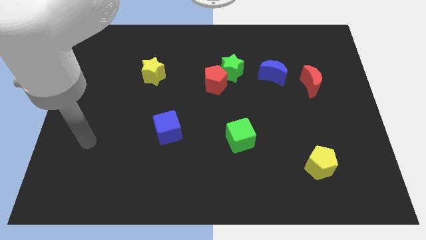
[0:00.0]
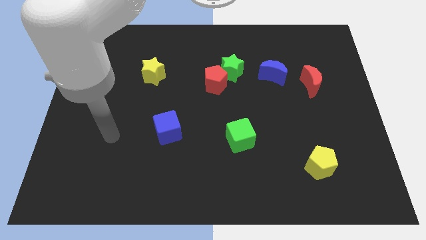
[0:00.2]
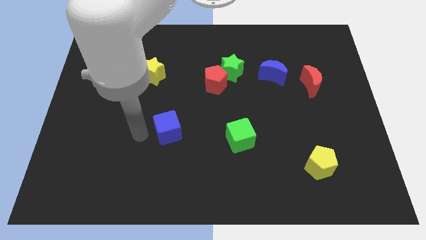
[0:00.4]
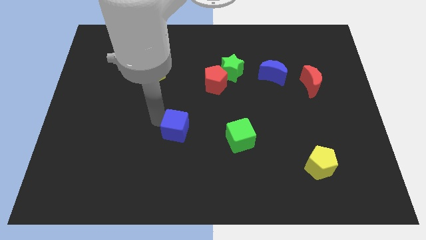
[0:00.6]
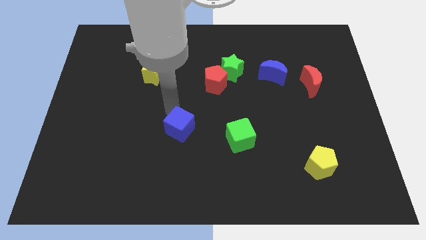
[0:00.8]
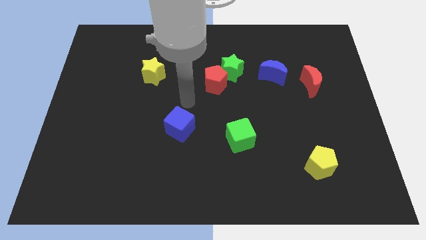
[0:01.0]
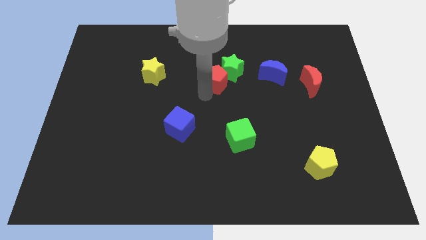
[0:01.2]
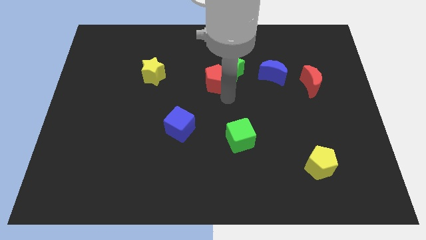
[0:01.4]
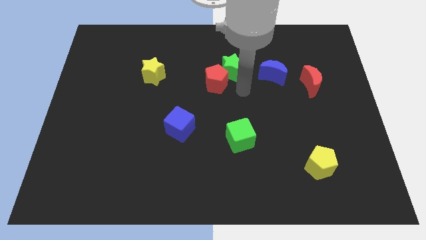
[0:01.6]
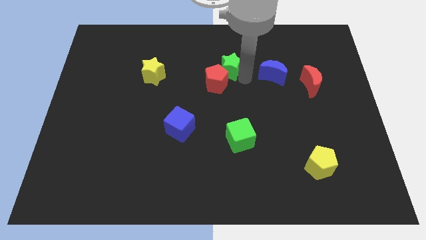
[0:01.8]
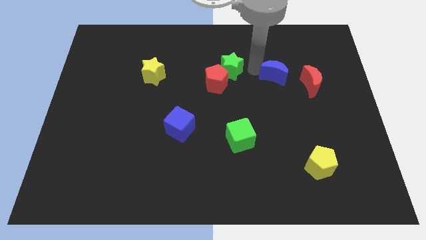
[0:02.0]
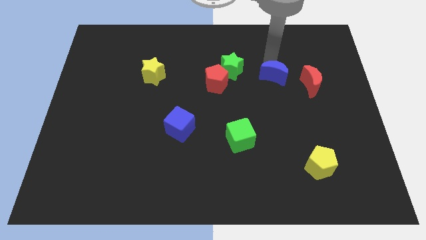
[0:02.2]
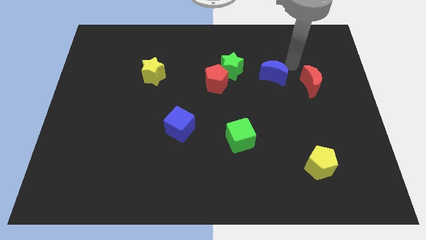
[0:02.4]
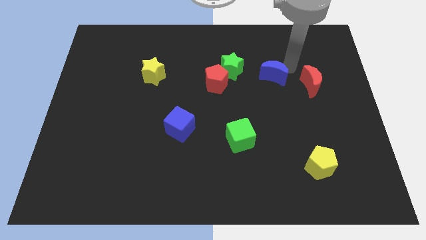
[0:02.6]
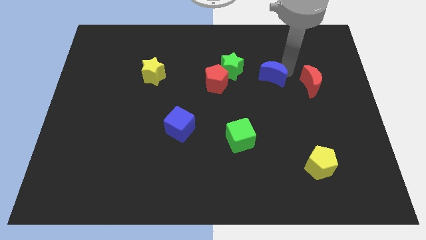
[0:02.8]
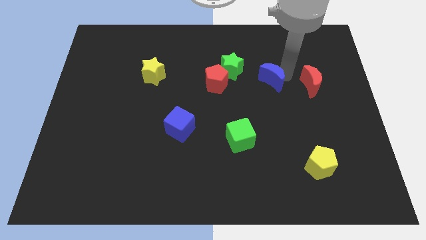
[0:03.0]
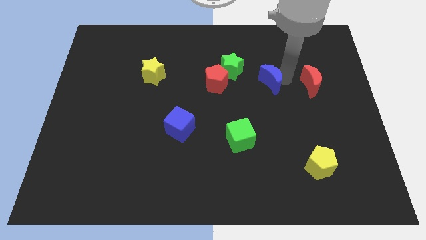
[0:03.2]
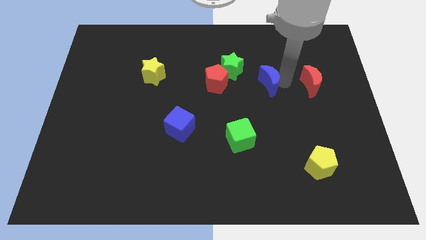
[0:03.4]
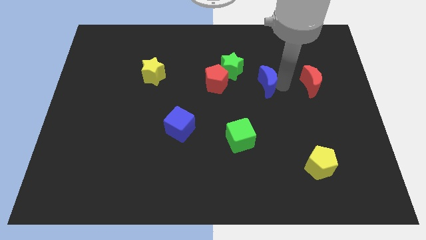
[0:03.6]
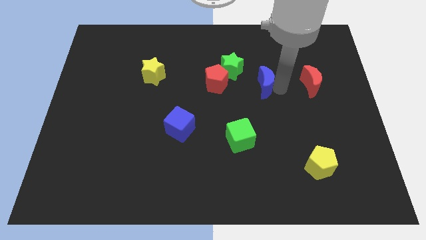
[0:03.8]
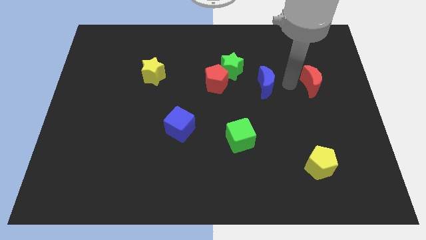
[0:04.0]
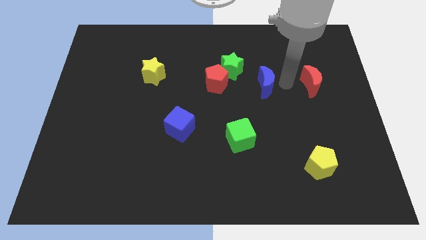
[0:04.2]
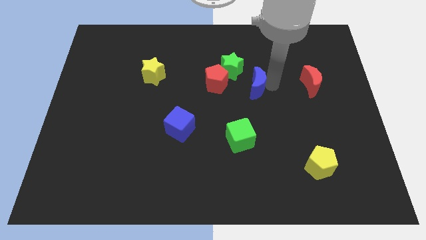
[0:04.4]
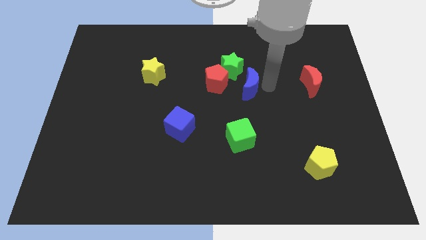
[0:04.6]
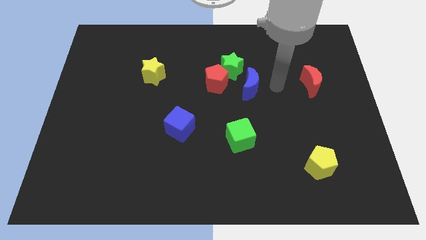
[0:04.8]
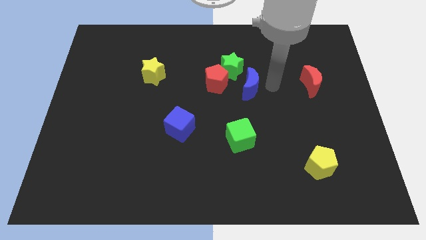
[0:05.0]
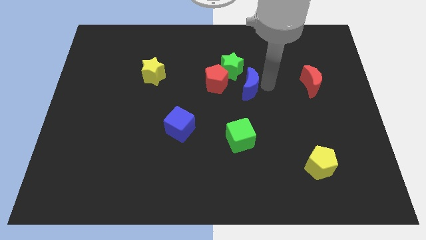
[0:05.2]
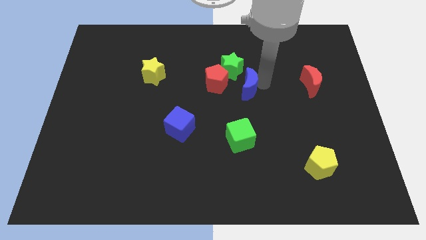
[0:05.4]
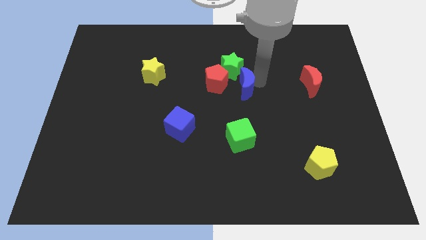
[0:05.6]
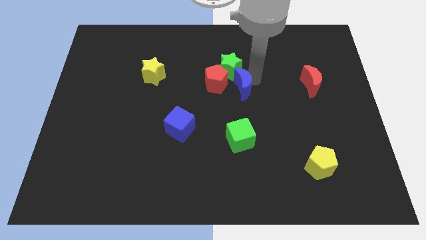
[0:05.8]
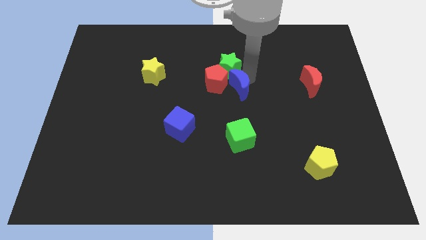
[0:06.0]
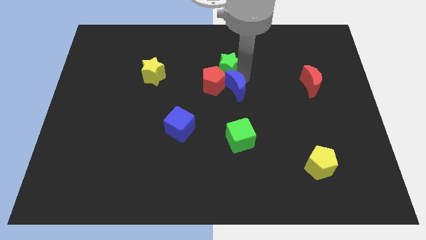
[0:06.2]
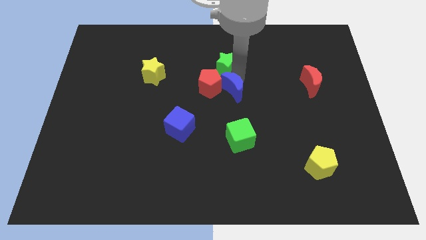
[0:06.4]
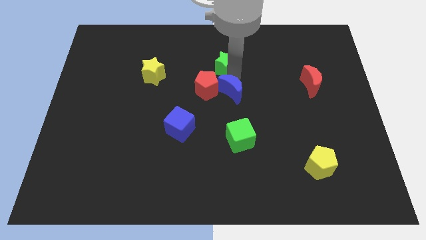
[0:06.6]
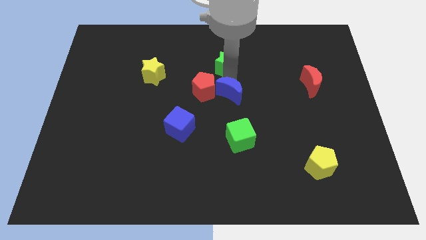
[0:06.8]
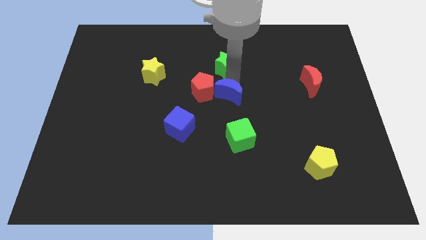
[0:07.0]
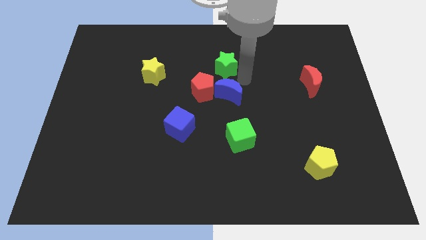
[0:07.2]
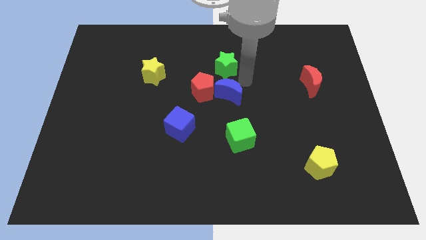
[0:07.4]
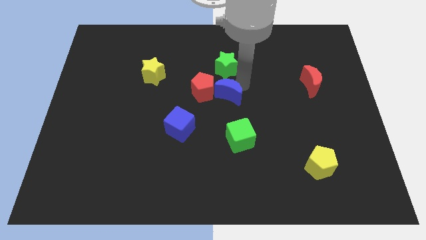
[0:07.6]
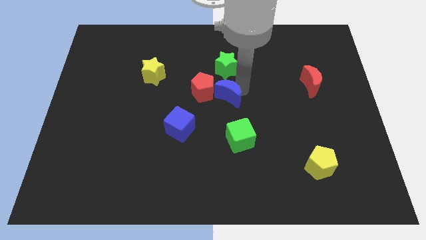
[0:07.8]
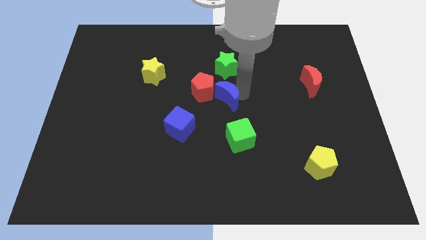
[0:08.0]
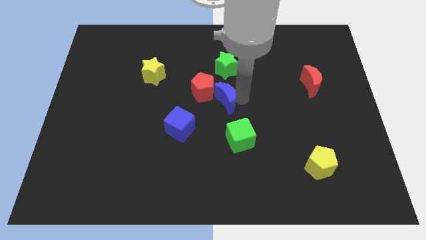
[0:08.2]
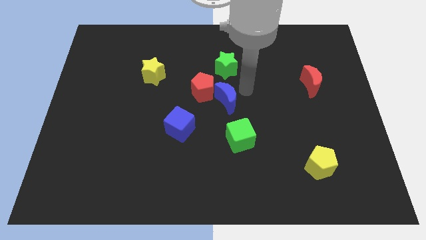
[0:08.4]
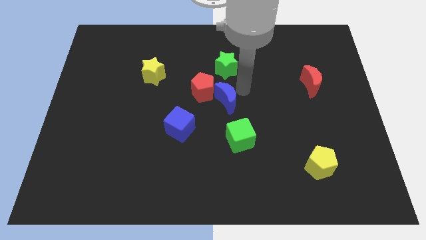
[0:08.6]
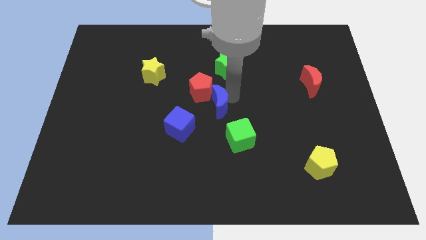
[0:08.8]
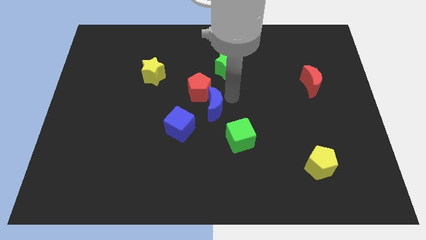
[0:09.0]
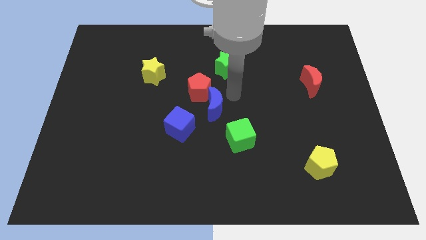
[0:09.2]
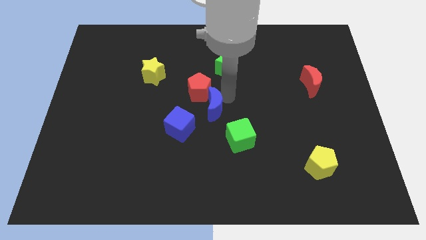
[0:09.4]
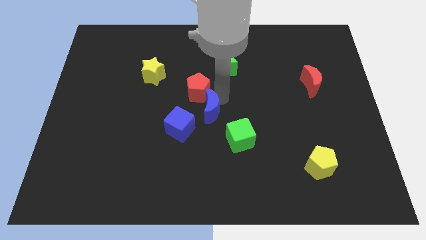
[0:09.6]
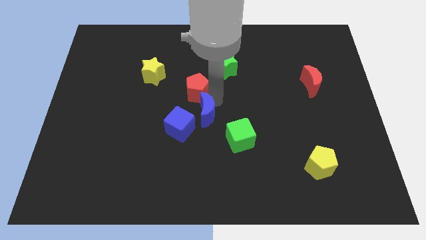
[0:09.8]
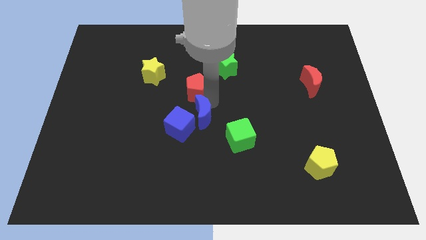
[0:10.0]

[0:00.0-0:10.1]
push the blue moon close to the blue cube

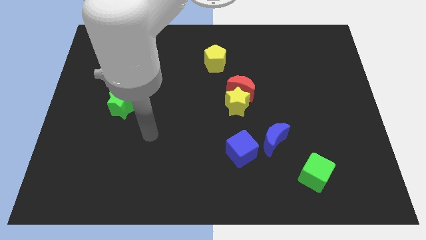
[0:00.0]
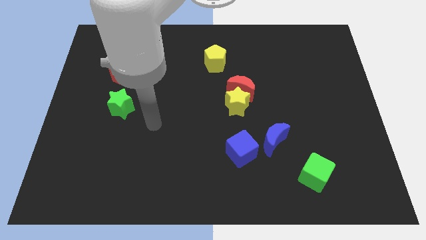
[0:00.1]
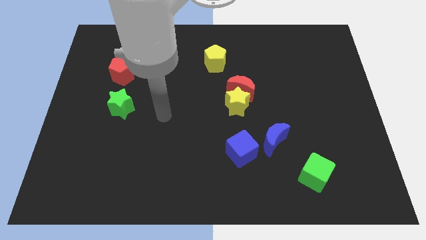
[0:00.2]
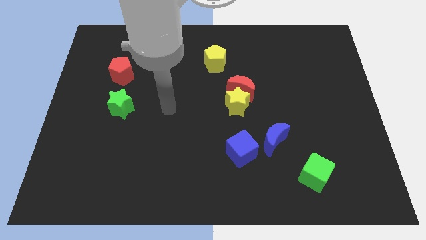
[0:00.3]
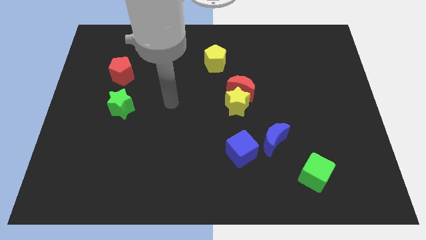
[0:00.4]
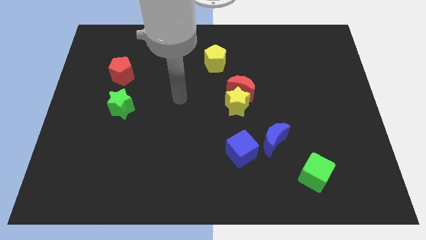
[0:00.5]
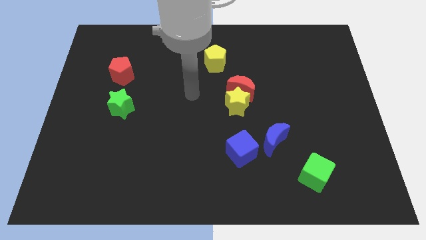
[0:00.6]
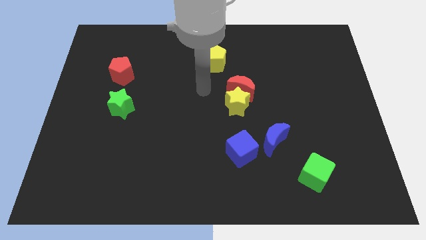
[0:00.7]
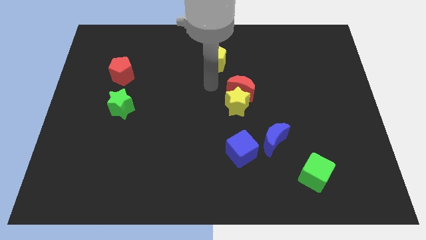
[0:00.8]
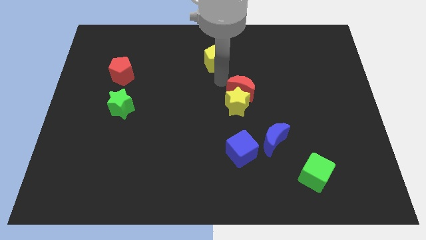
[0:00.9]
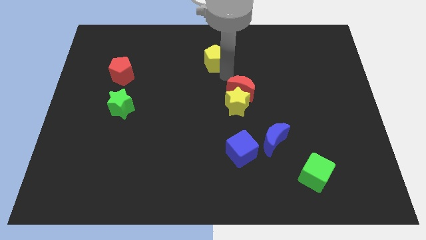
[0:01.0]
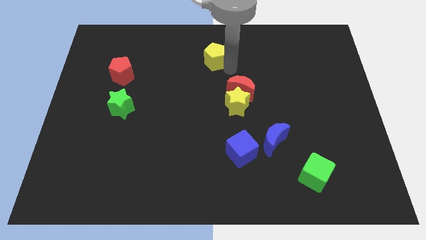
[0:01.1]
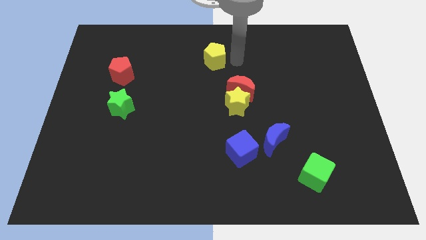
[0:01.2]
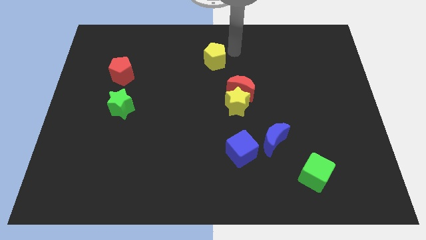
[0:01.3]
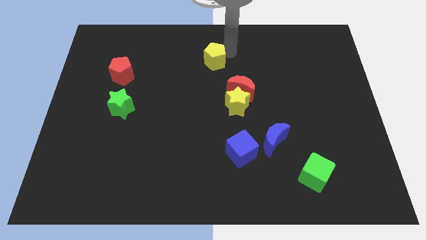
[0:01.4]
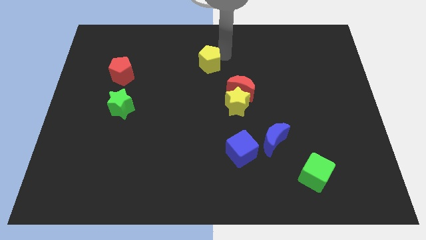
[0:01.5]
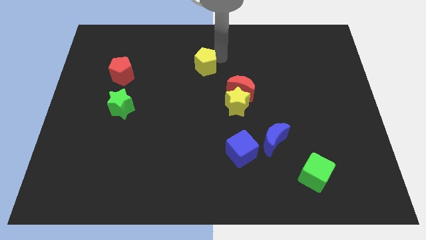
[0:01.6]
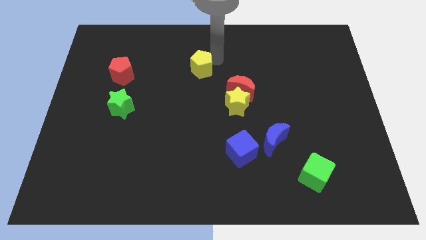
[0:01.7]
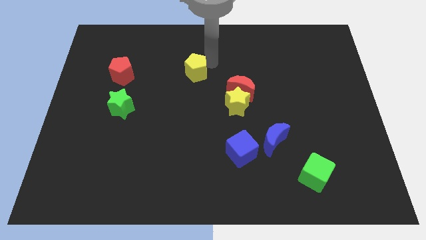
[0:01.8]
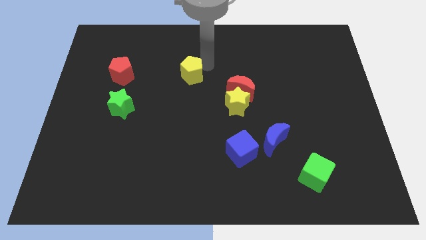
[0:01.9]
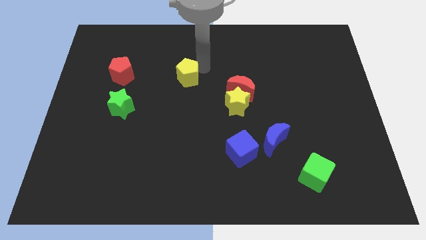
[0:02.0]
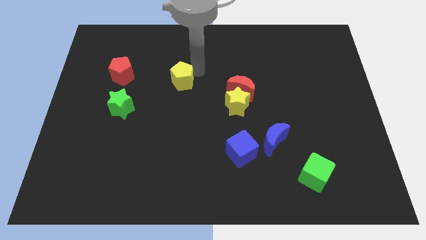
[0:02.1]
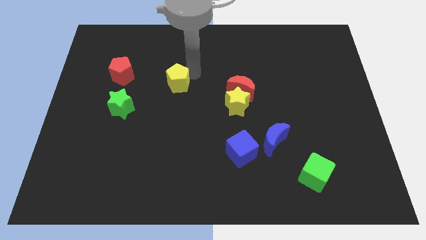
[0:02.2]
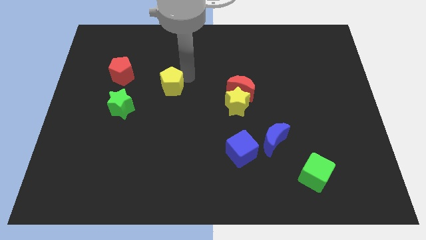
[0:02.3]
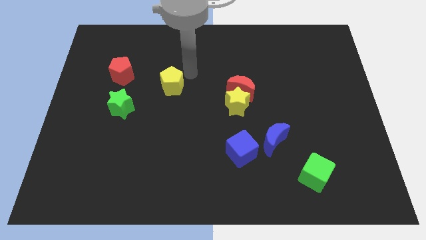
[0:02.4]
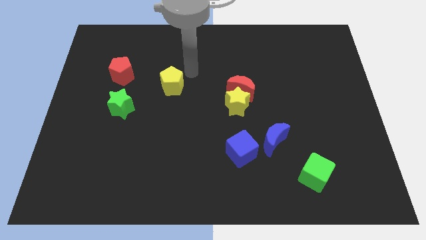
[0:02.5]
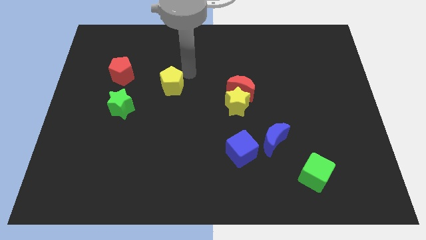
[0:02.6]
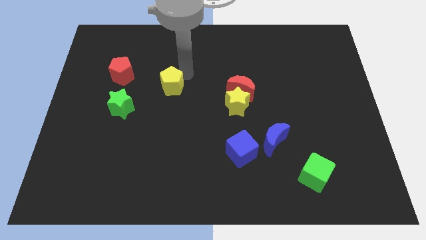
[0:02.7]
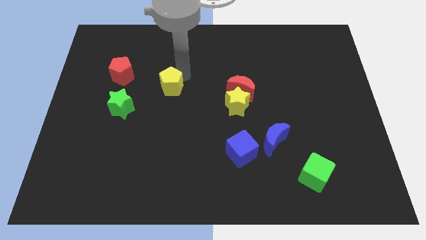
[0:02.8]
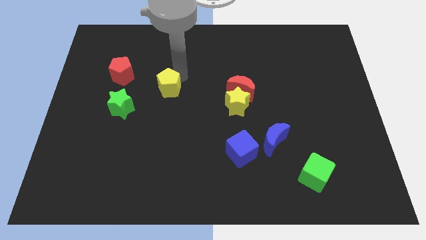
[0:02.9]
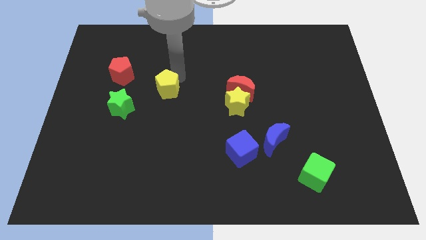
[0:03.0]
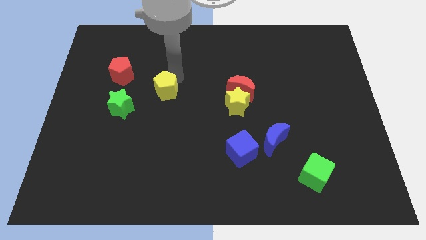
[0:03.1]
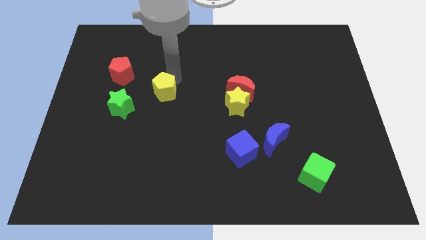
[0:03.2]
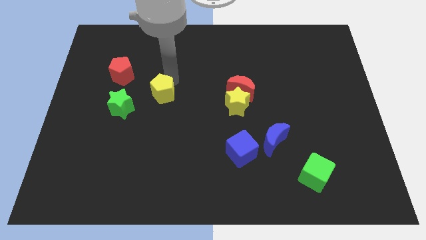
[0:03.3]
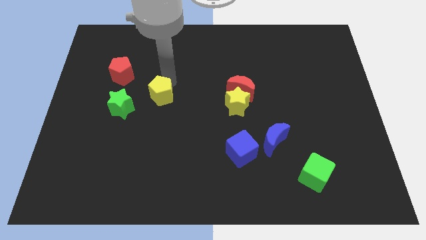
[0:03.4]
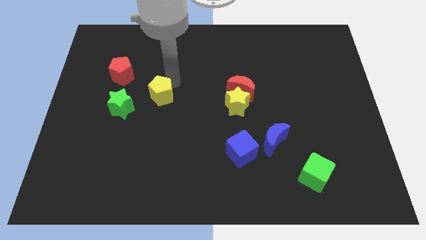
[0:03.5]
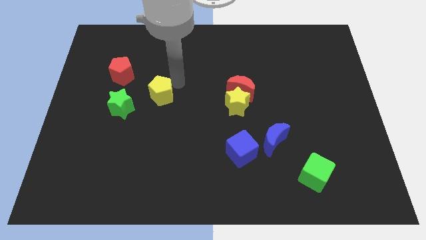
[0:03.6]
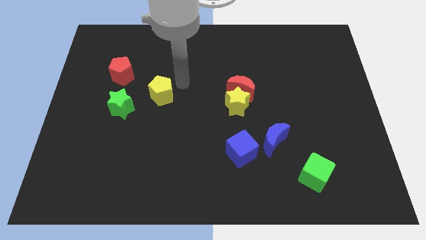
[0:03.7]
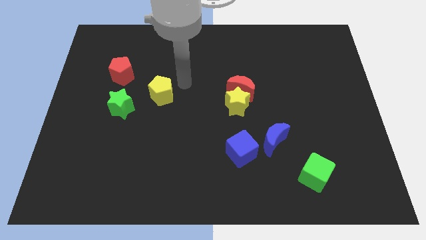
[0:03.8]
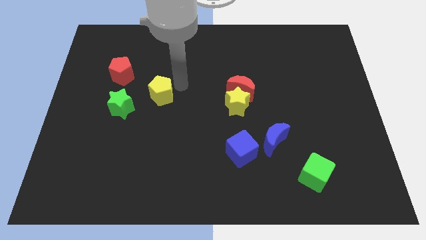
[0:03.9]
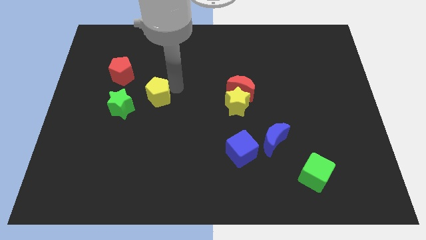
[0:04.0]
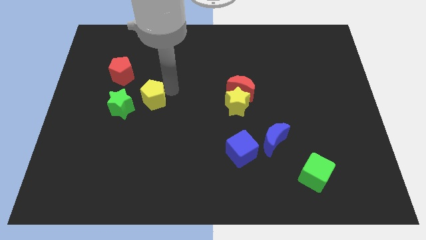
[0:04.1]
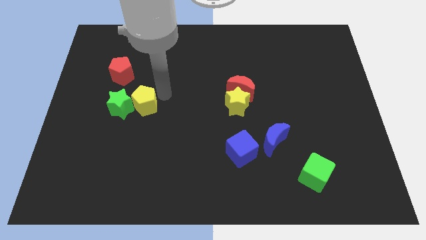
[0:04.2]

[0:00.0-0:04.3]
slide the yellow pentagon close to the green star
